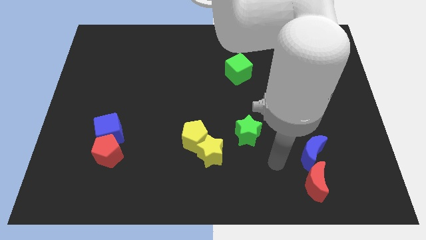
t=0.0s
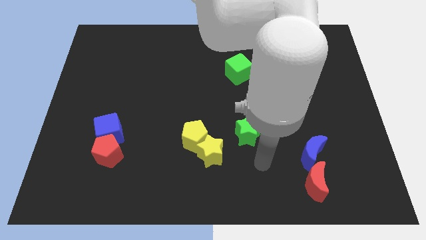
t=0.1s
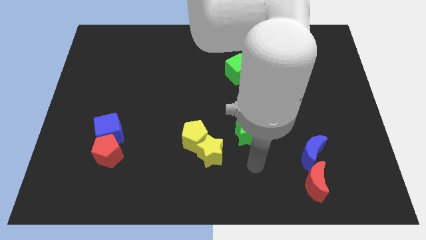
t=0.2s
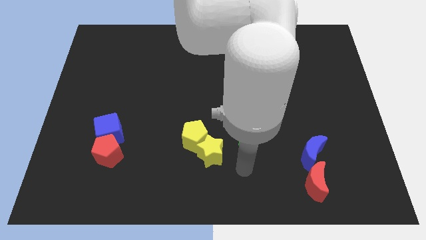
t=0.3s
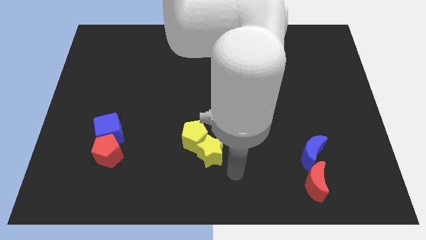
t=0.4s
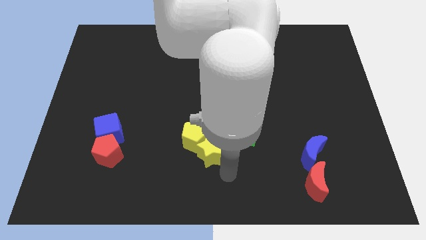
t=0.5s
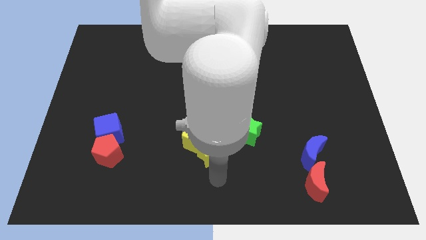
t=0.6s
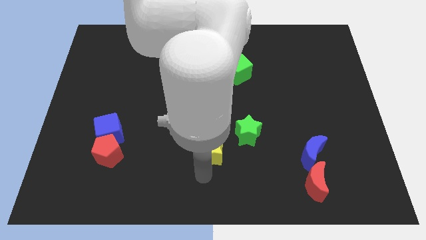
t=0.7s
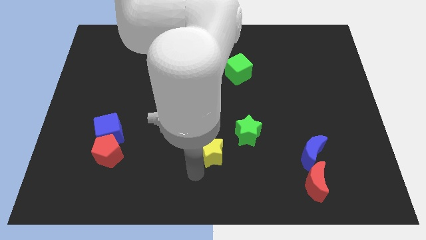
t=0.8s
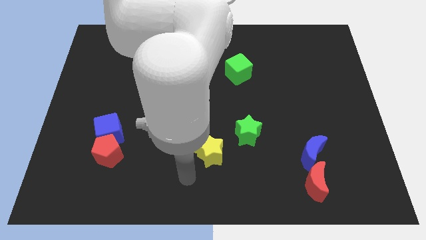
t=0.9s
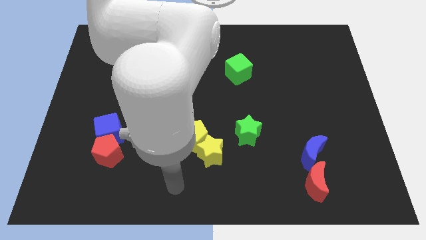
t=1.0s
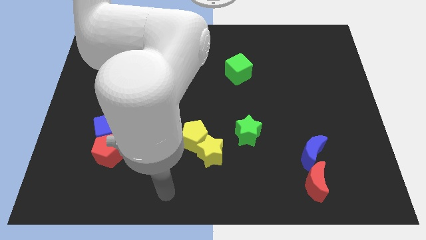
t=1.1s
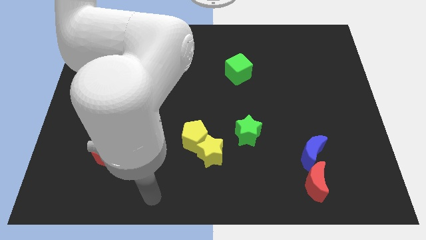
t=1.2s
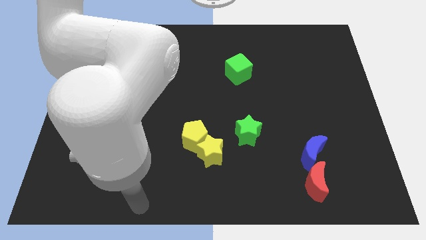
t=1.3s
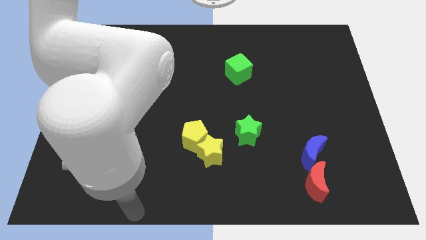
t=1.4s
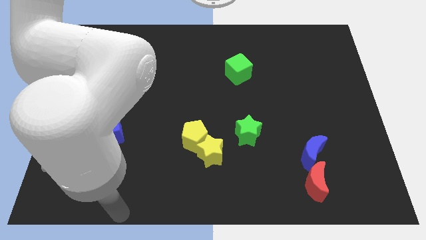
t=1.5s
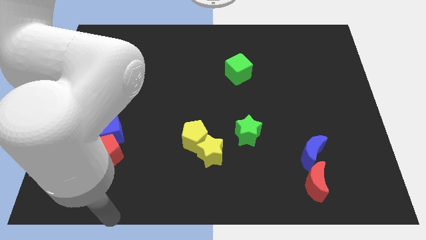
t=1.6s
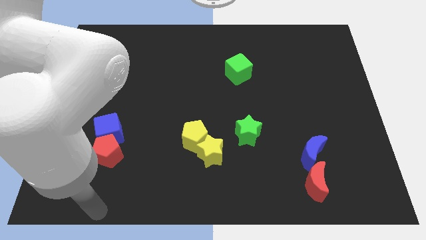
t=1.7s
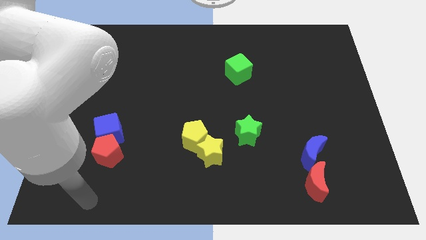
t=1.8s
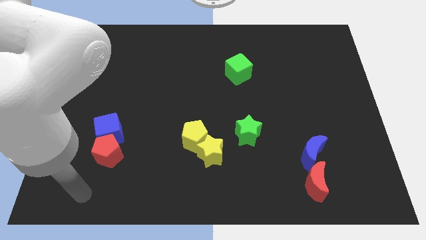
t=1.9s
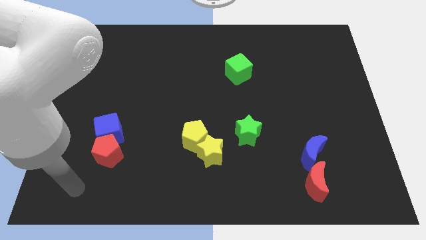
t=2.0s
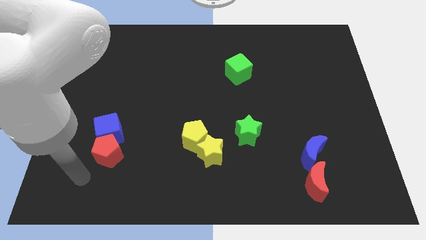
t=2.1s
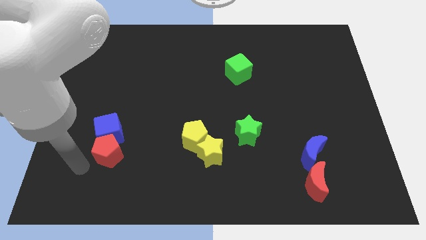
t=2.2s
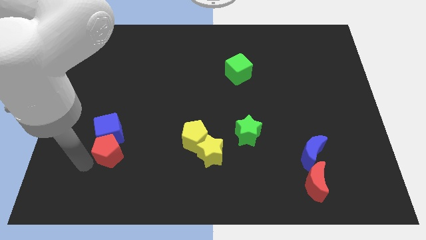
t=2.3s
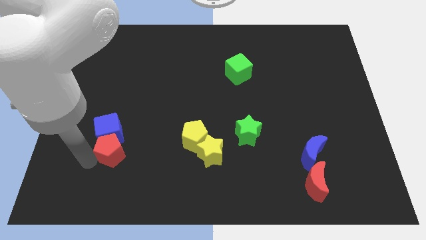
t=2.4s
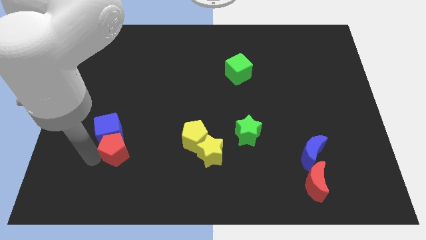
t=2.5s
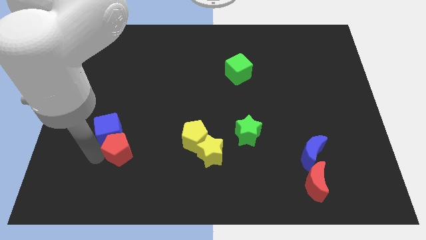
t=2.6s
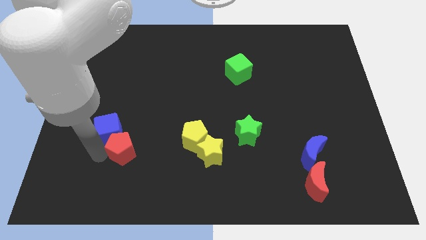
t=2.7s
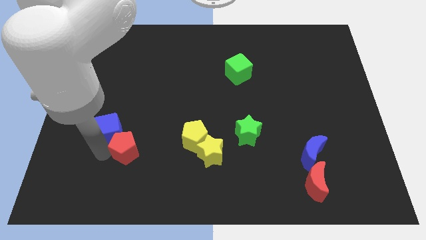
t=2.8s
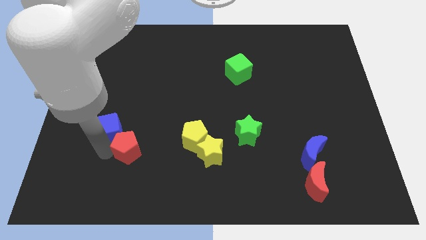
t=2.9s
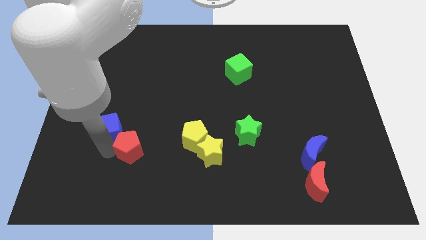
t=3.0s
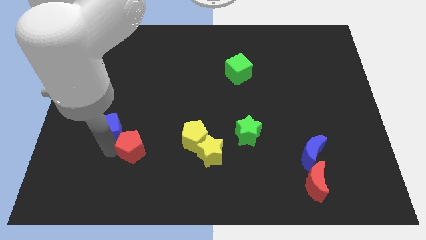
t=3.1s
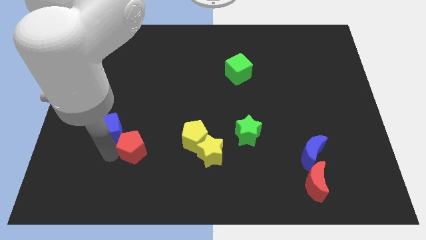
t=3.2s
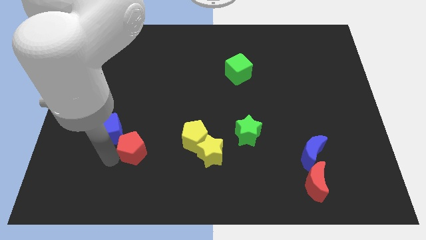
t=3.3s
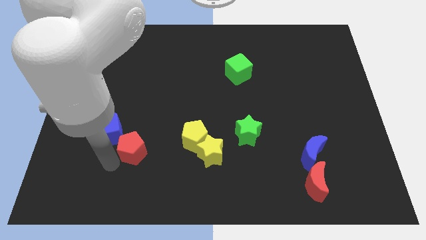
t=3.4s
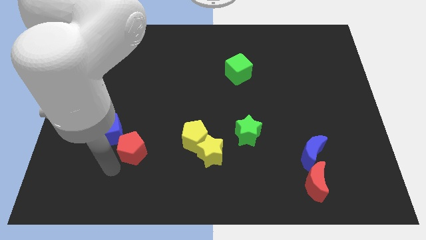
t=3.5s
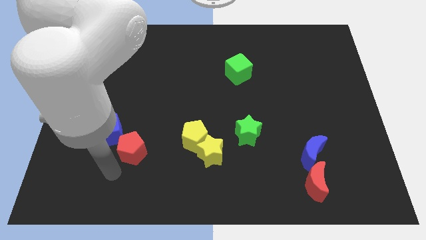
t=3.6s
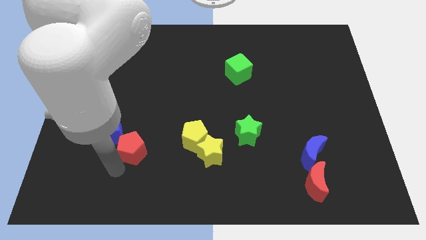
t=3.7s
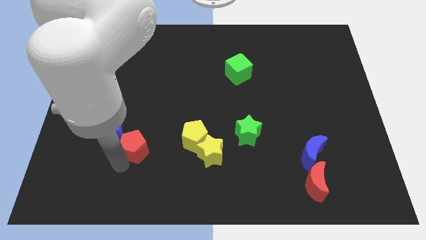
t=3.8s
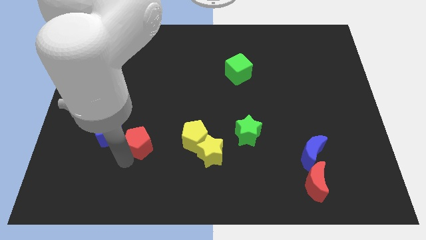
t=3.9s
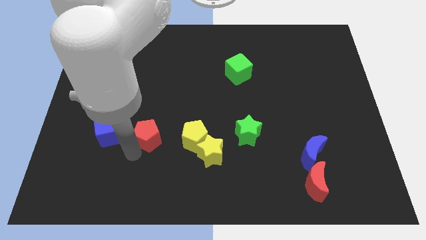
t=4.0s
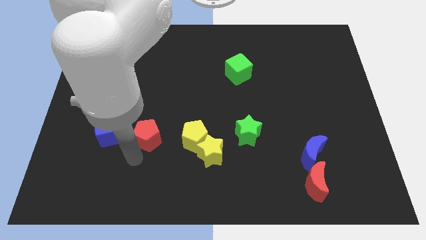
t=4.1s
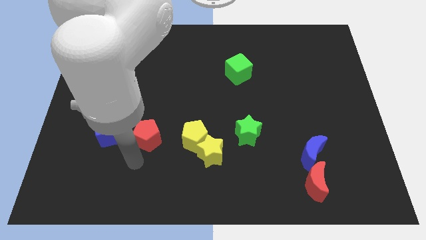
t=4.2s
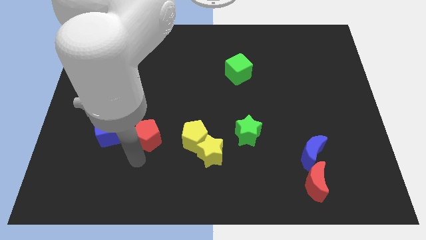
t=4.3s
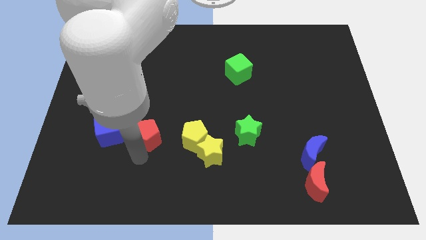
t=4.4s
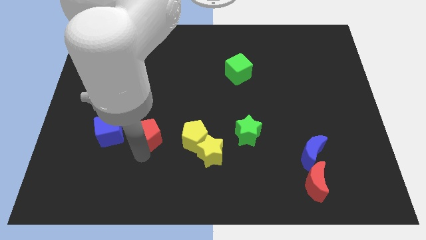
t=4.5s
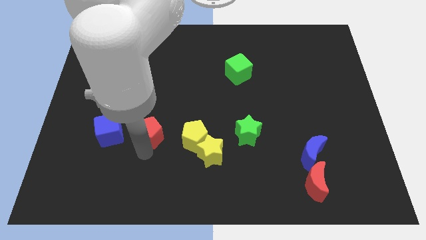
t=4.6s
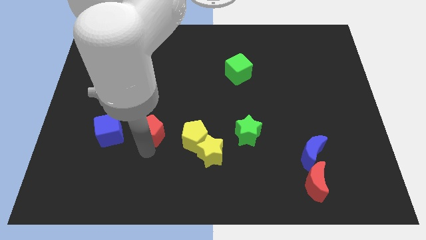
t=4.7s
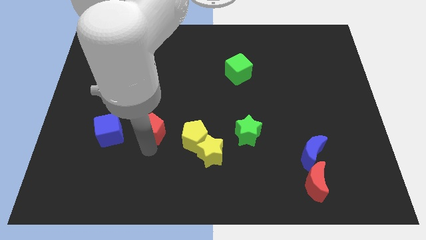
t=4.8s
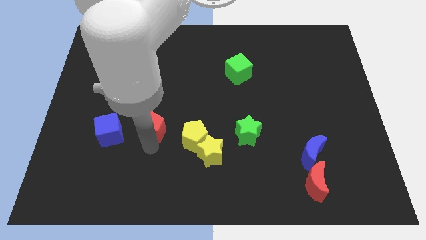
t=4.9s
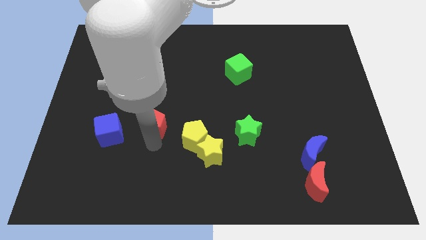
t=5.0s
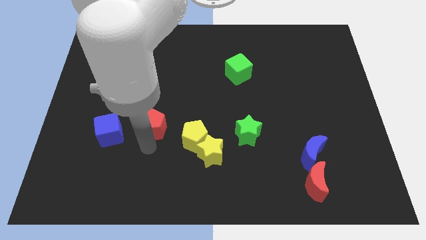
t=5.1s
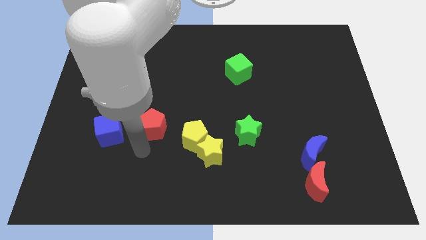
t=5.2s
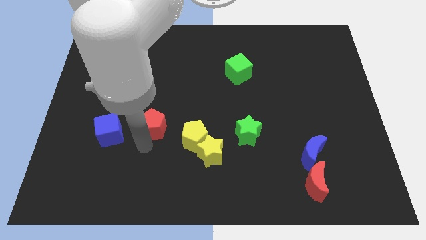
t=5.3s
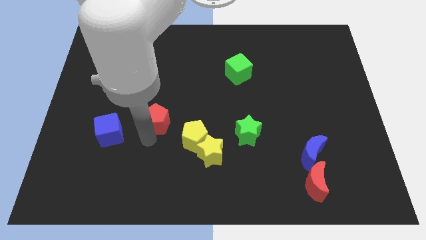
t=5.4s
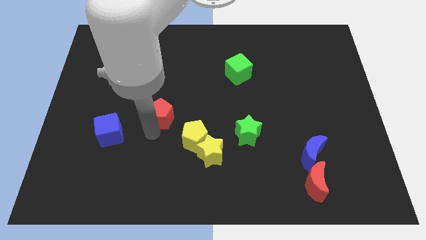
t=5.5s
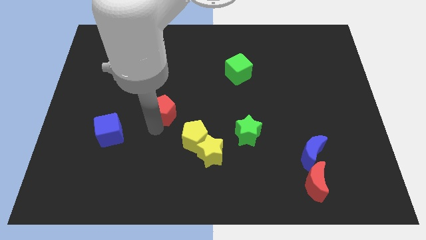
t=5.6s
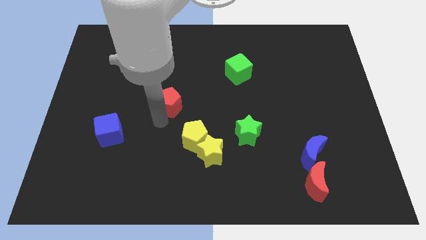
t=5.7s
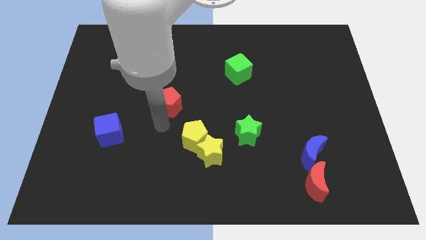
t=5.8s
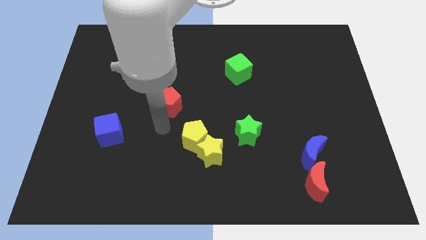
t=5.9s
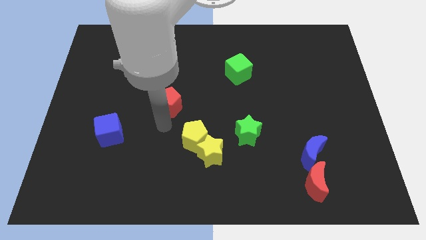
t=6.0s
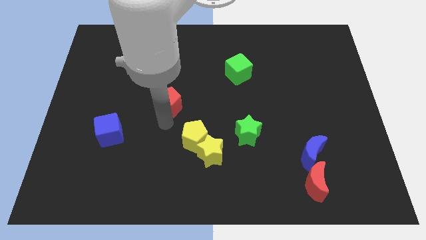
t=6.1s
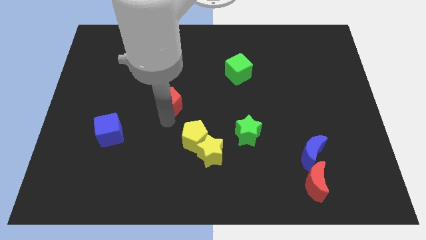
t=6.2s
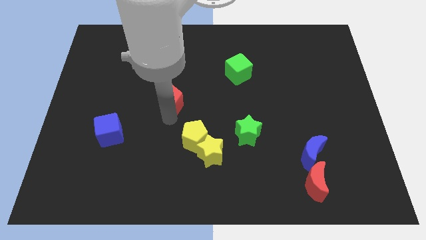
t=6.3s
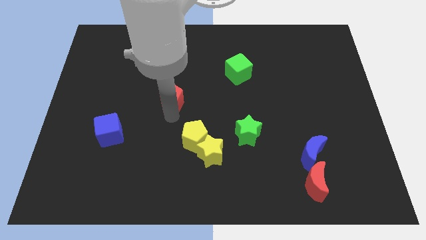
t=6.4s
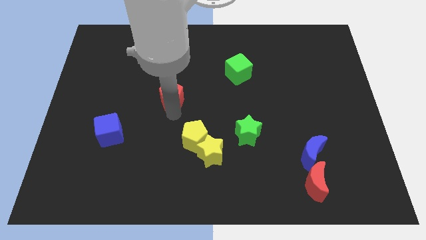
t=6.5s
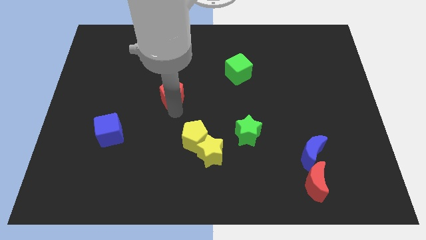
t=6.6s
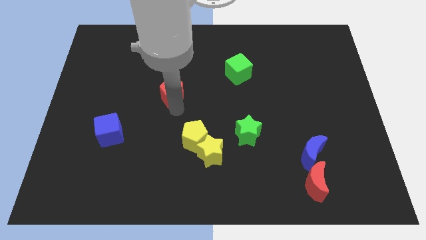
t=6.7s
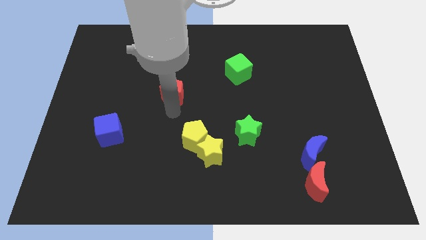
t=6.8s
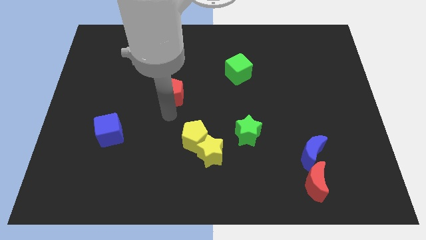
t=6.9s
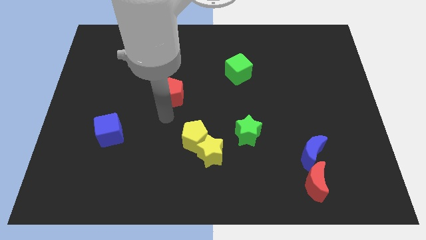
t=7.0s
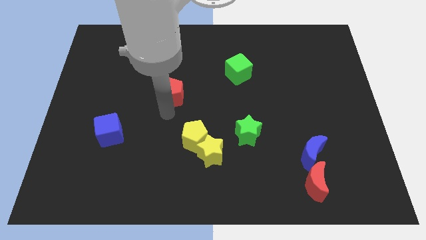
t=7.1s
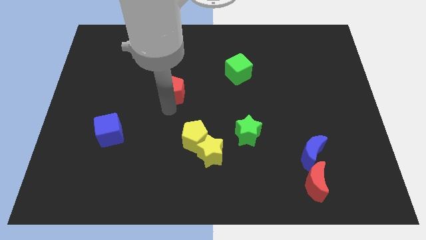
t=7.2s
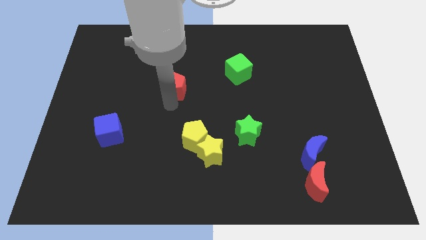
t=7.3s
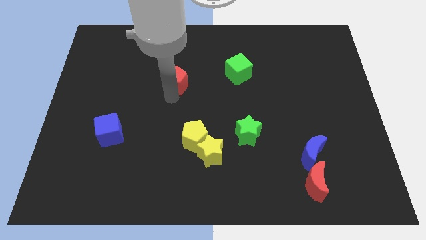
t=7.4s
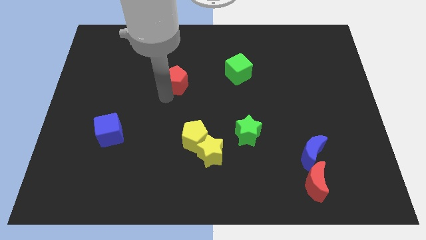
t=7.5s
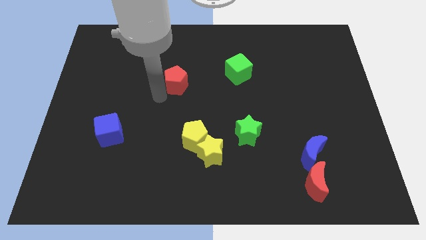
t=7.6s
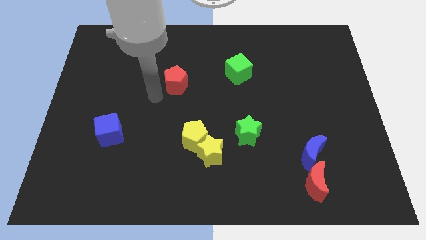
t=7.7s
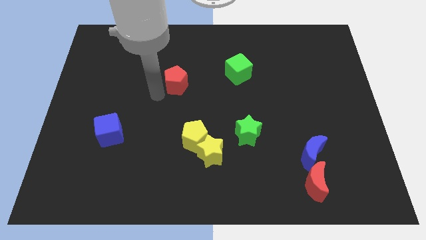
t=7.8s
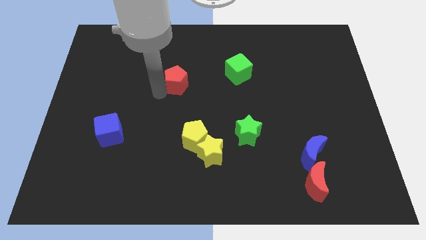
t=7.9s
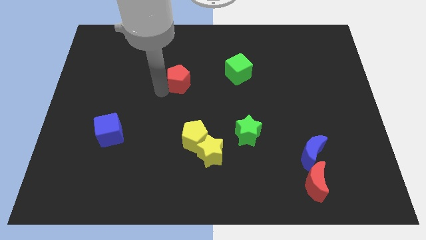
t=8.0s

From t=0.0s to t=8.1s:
put the red pentagon to the left side of the green cube
